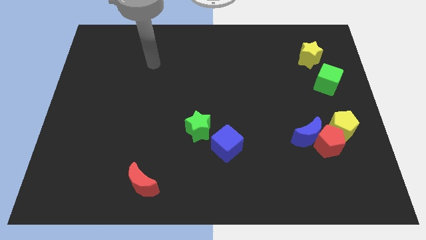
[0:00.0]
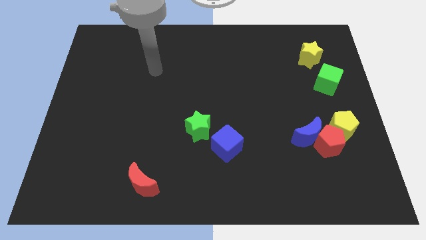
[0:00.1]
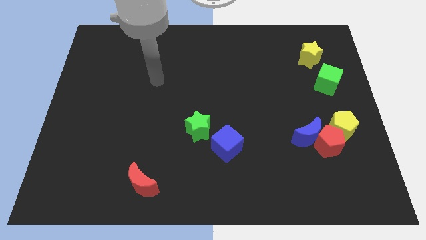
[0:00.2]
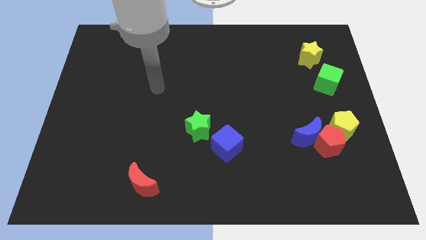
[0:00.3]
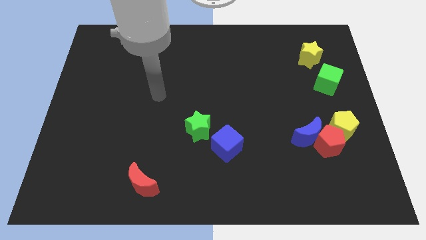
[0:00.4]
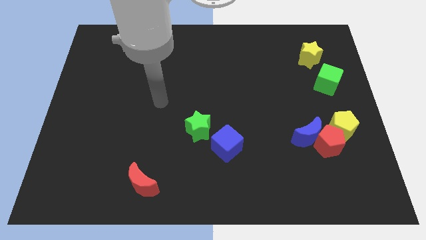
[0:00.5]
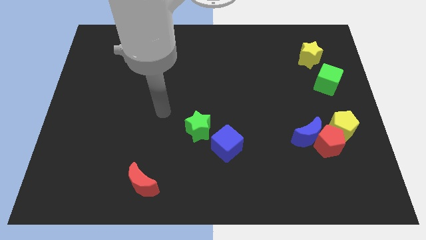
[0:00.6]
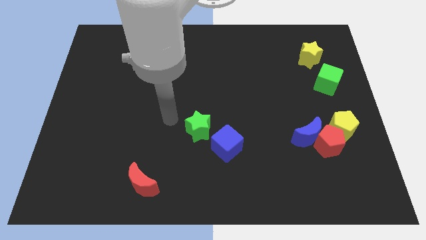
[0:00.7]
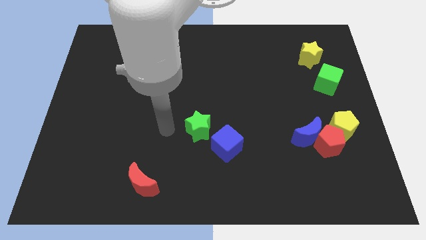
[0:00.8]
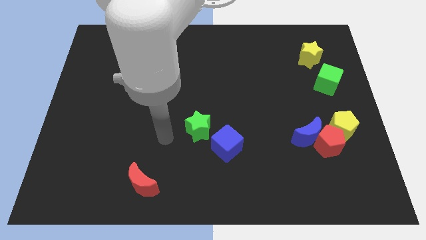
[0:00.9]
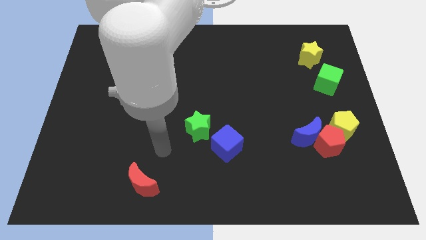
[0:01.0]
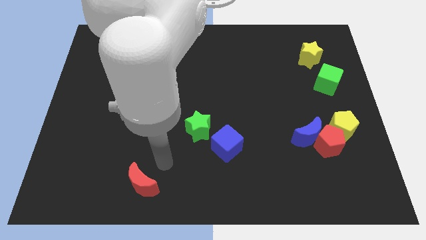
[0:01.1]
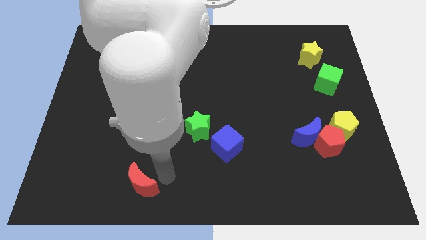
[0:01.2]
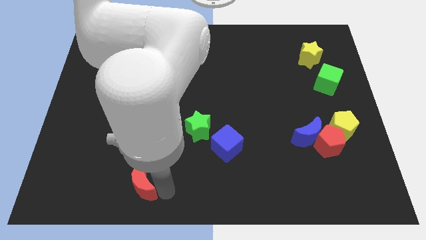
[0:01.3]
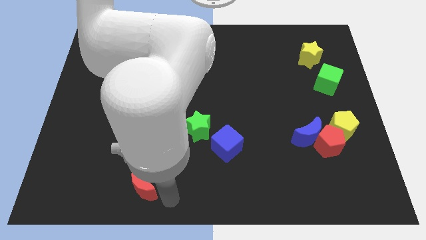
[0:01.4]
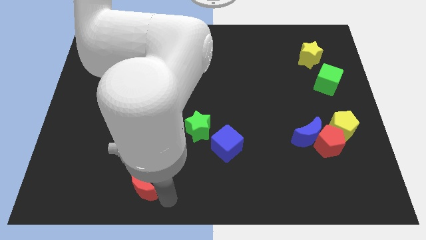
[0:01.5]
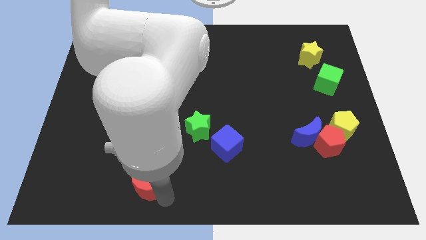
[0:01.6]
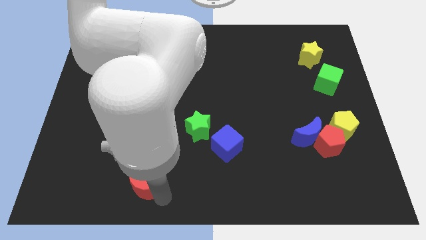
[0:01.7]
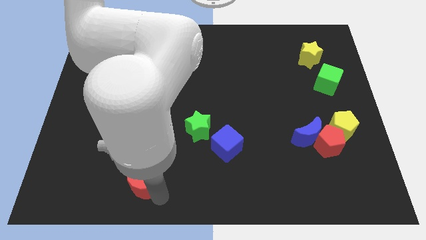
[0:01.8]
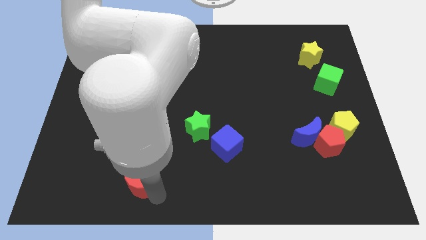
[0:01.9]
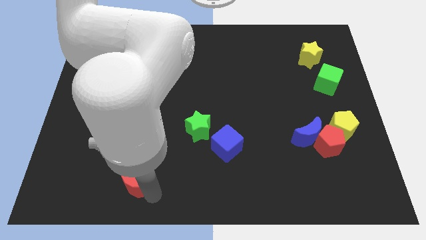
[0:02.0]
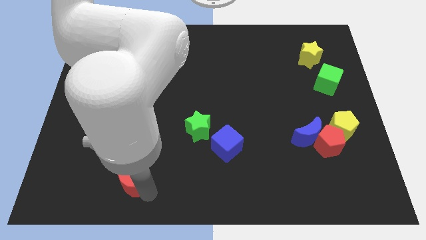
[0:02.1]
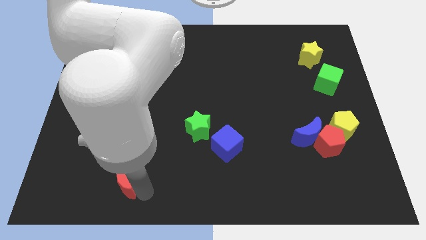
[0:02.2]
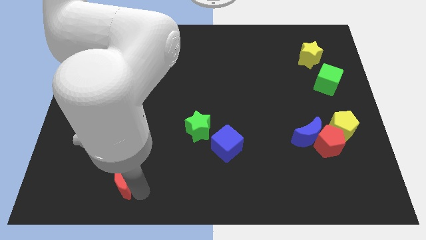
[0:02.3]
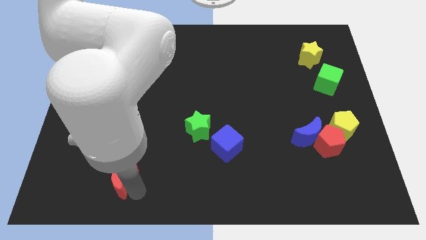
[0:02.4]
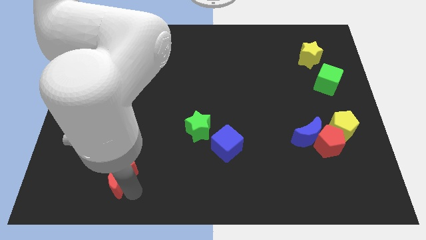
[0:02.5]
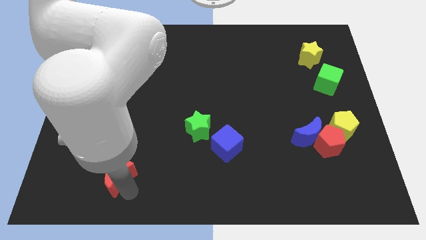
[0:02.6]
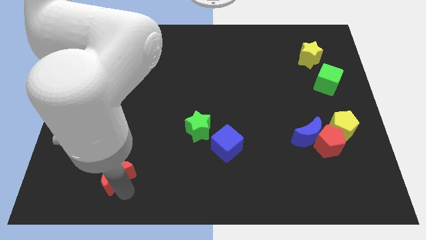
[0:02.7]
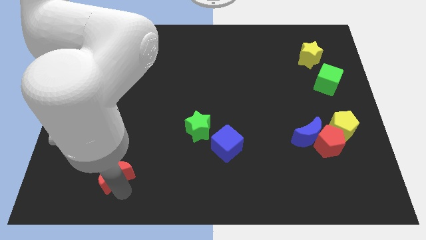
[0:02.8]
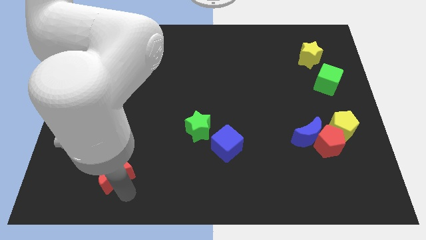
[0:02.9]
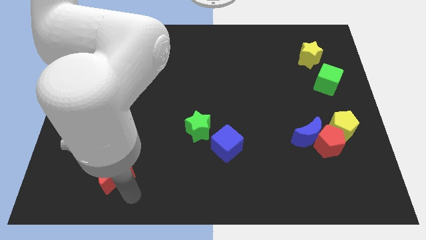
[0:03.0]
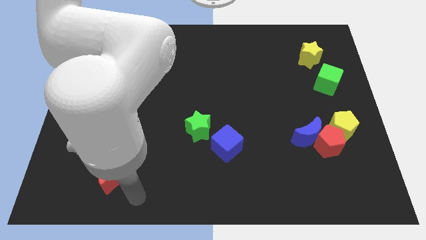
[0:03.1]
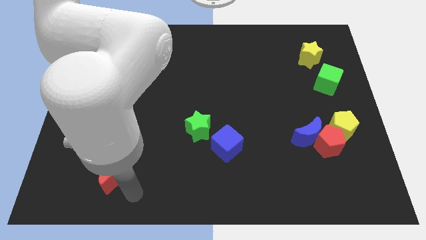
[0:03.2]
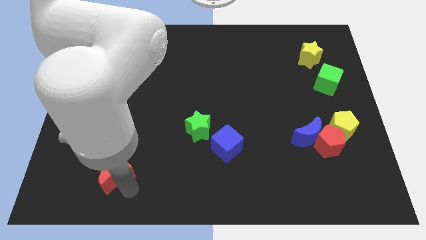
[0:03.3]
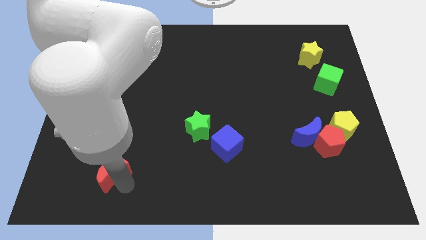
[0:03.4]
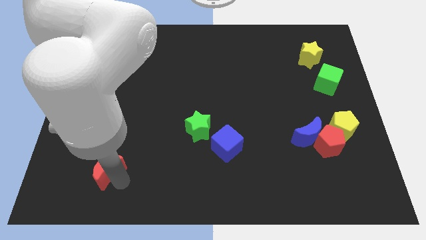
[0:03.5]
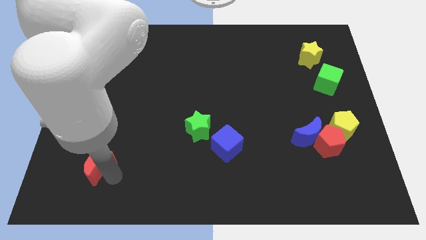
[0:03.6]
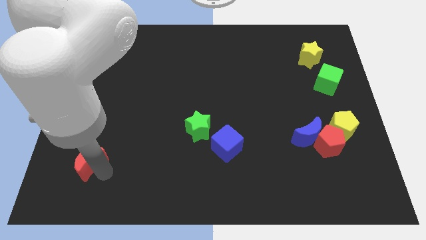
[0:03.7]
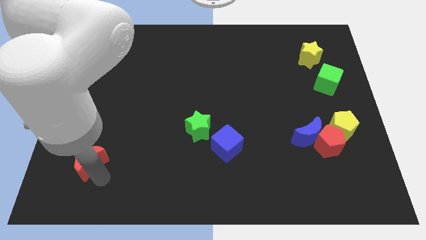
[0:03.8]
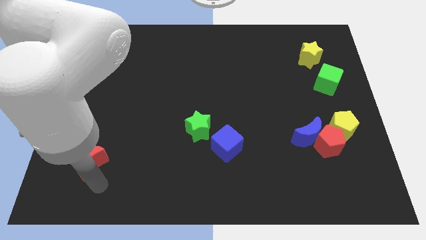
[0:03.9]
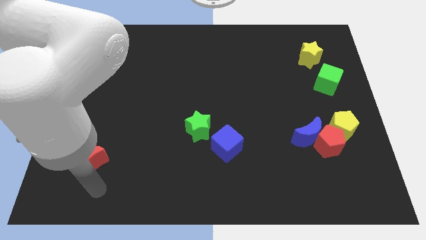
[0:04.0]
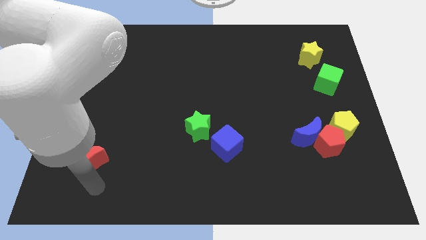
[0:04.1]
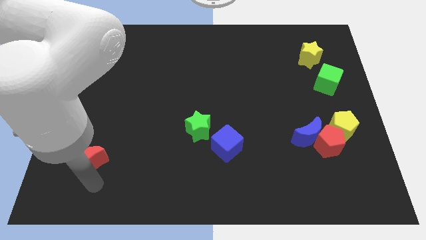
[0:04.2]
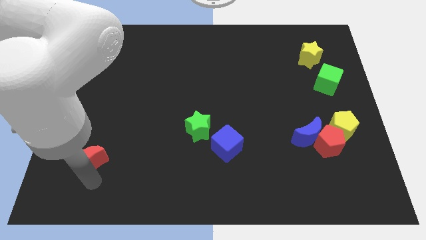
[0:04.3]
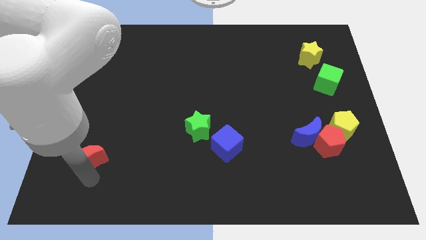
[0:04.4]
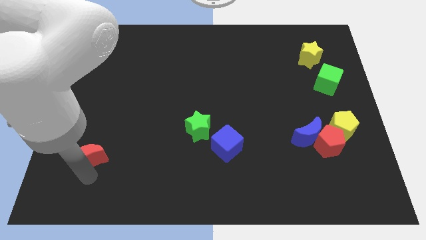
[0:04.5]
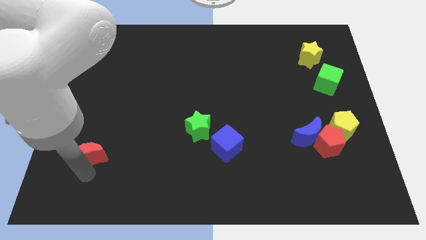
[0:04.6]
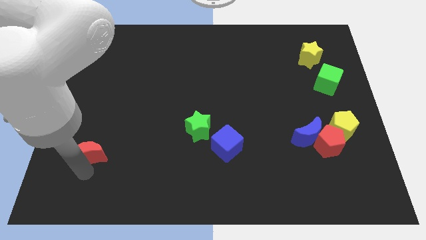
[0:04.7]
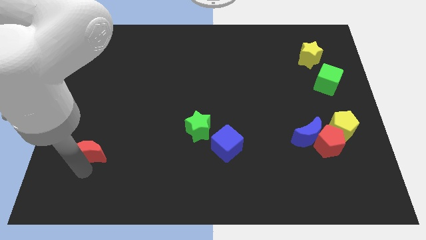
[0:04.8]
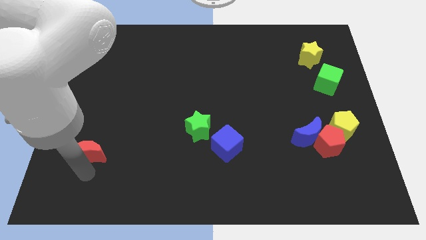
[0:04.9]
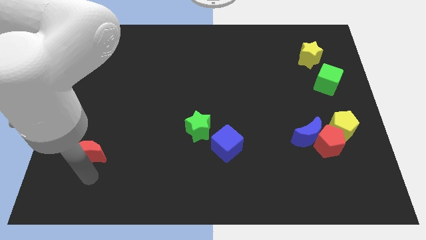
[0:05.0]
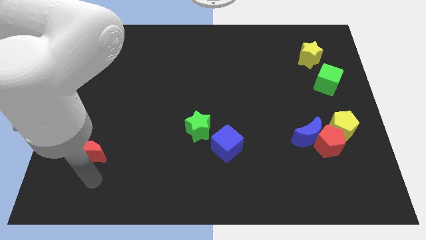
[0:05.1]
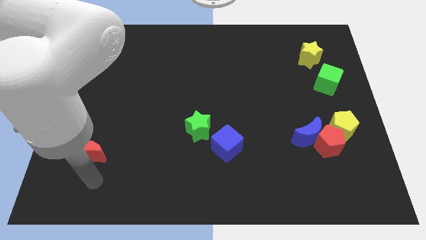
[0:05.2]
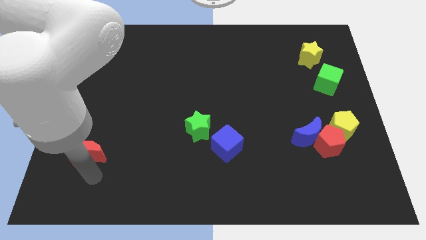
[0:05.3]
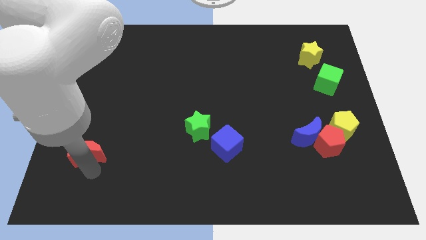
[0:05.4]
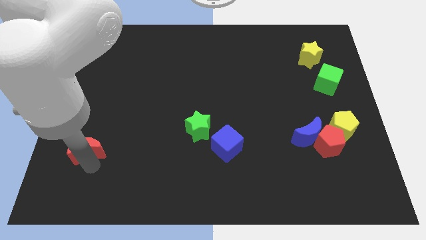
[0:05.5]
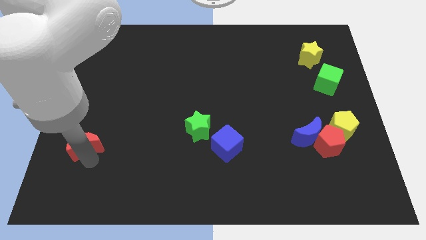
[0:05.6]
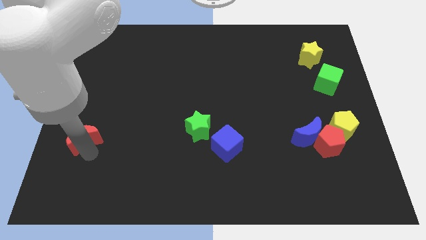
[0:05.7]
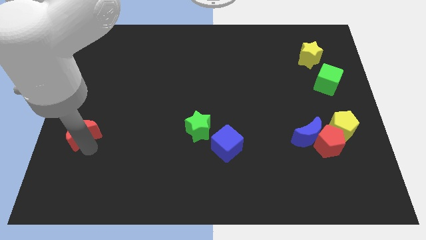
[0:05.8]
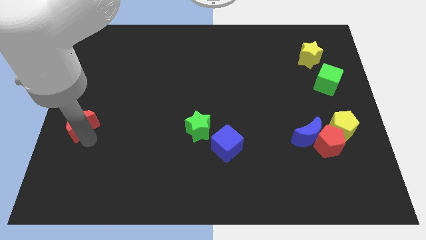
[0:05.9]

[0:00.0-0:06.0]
move the red moon to the center left
